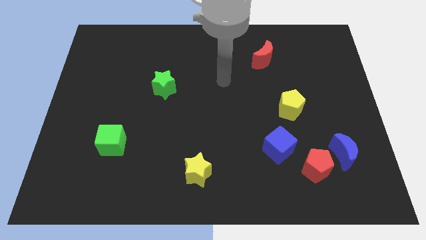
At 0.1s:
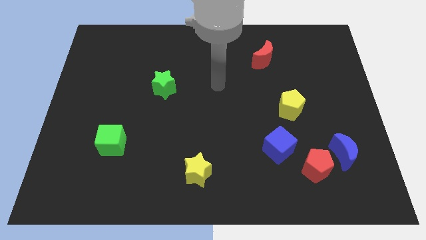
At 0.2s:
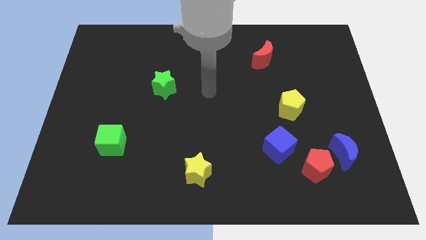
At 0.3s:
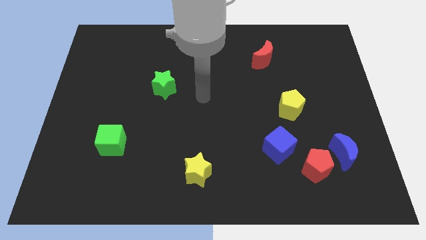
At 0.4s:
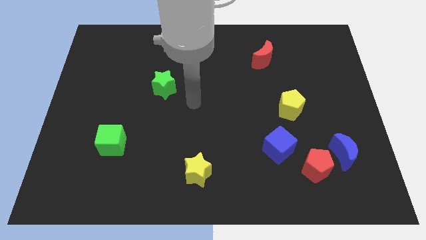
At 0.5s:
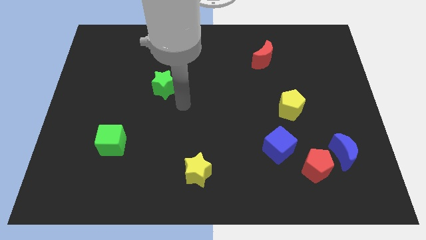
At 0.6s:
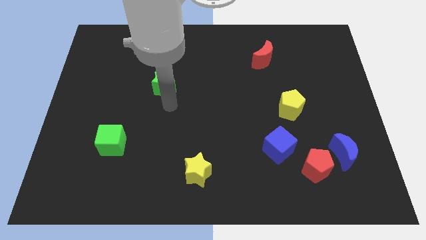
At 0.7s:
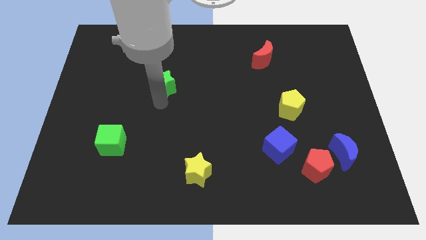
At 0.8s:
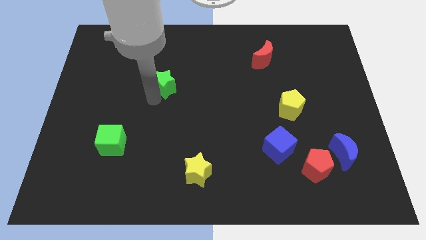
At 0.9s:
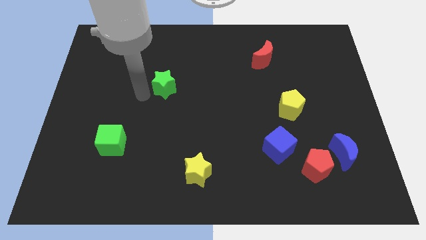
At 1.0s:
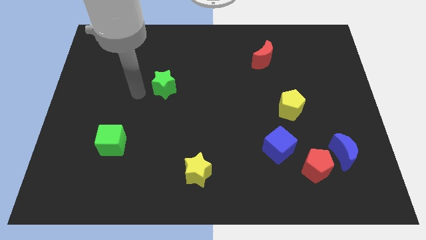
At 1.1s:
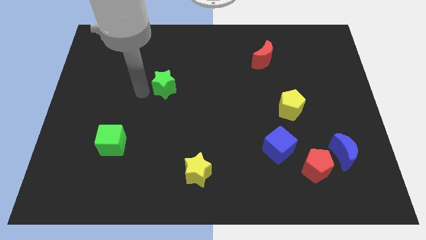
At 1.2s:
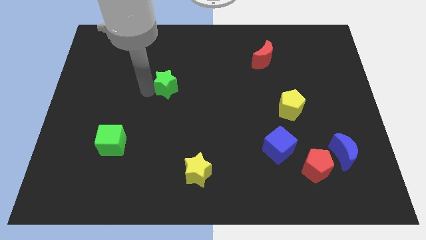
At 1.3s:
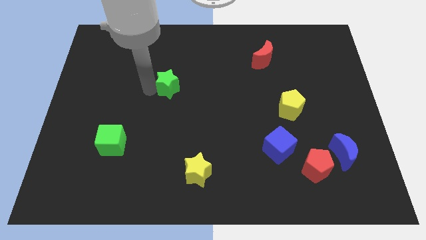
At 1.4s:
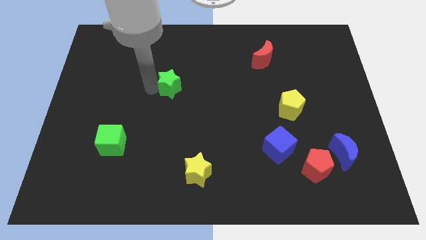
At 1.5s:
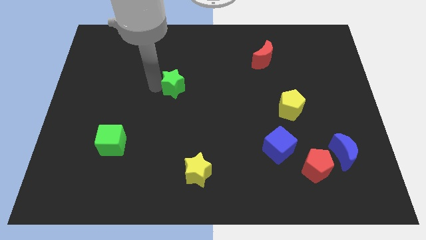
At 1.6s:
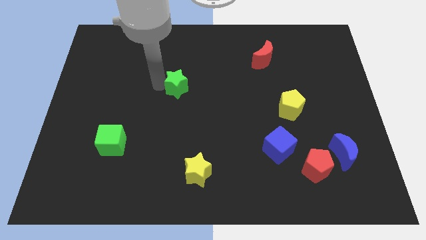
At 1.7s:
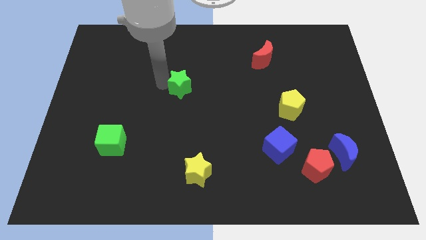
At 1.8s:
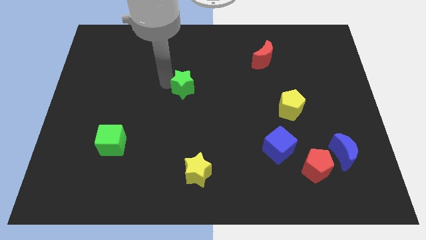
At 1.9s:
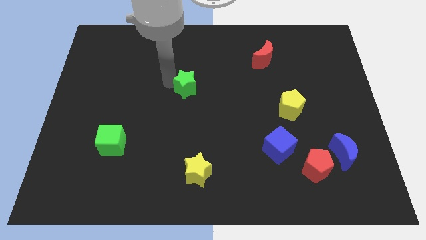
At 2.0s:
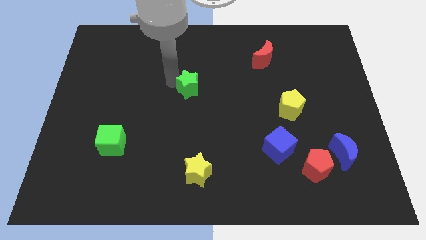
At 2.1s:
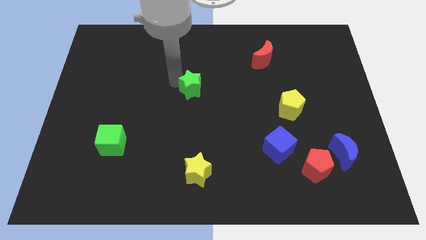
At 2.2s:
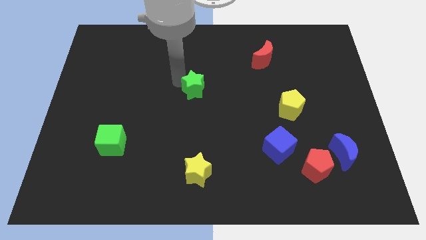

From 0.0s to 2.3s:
slide the green star to the right a bit

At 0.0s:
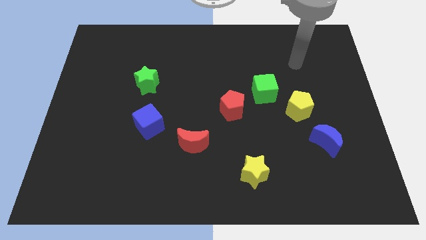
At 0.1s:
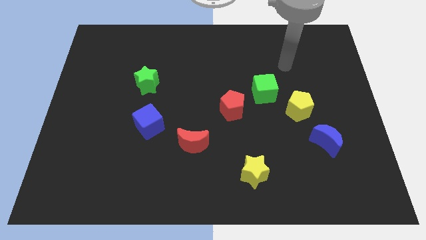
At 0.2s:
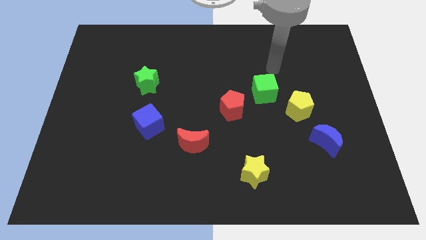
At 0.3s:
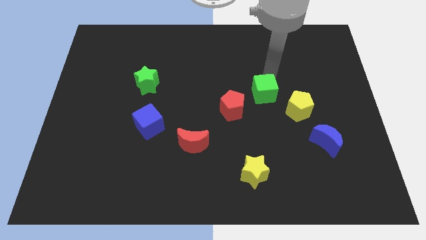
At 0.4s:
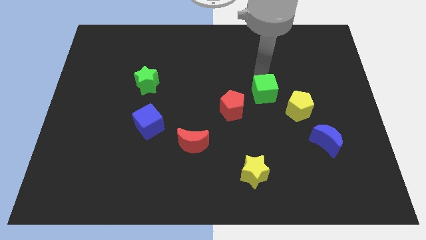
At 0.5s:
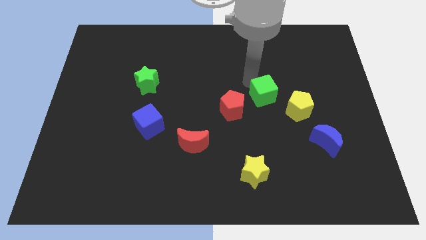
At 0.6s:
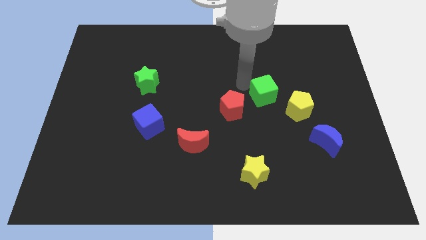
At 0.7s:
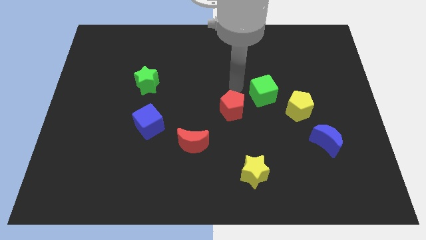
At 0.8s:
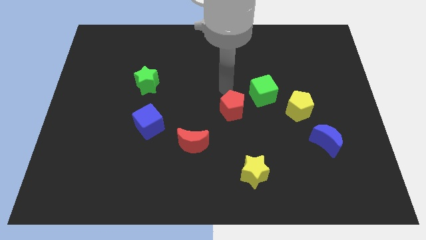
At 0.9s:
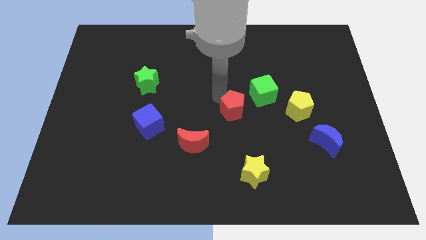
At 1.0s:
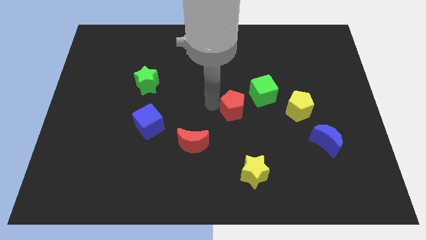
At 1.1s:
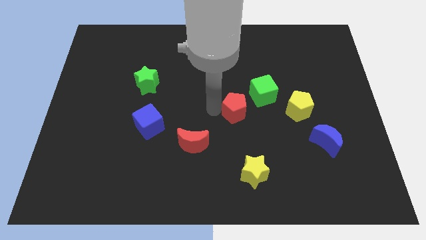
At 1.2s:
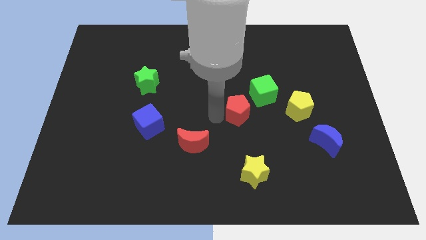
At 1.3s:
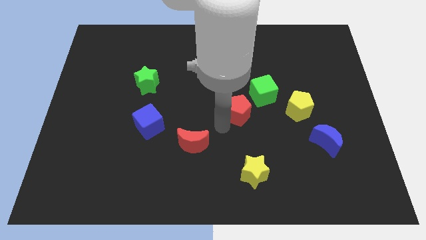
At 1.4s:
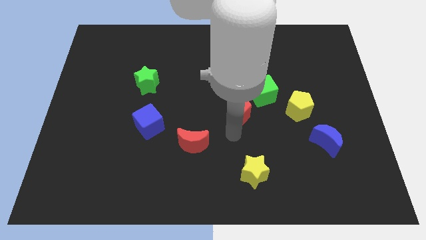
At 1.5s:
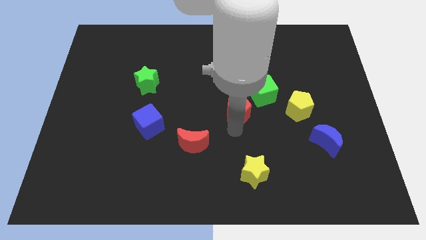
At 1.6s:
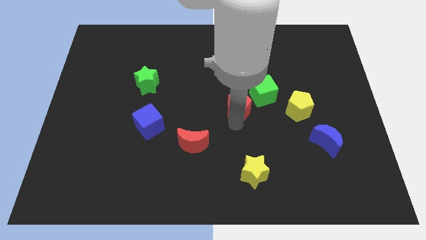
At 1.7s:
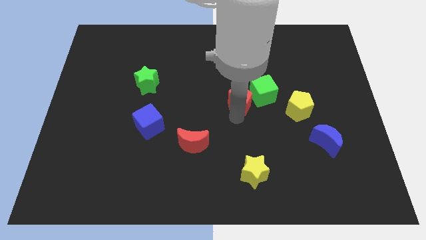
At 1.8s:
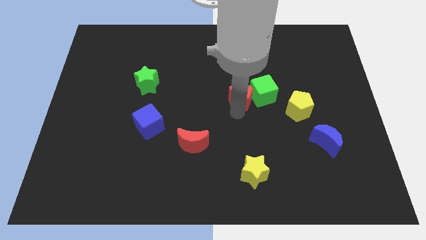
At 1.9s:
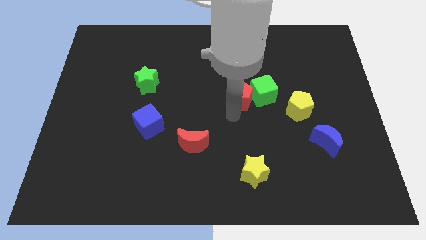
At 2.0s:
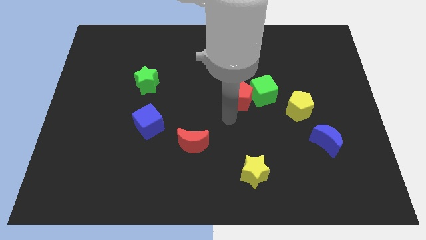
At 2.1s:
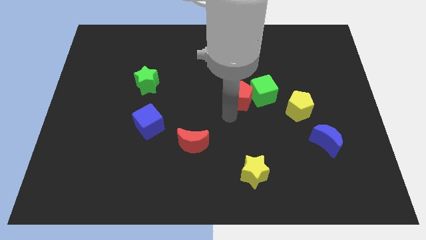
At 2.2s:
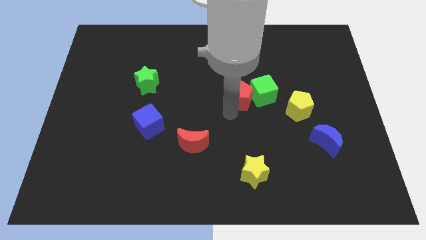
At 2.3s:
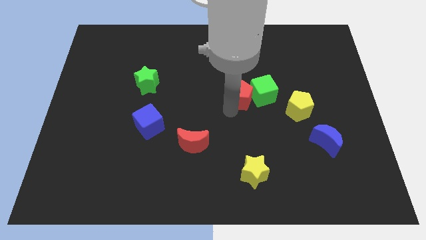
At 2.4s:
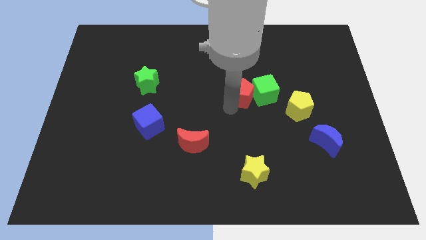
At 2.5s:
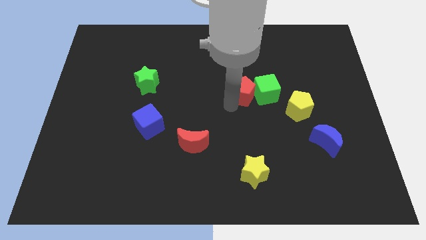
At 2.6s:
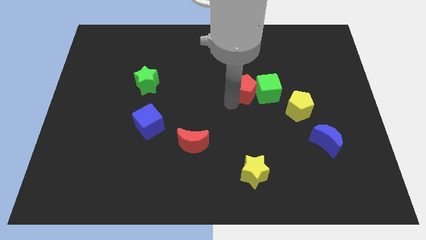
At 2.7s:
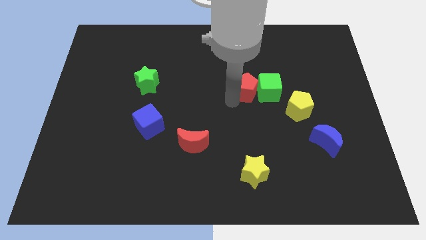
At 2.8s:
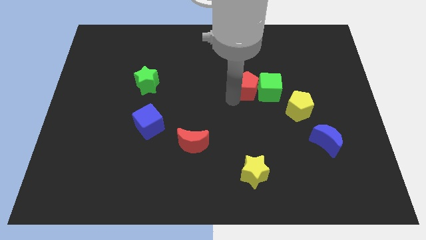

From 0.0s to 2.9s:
push the red pentagon up and then to the right a bit

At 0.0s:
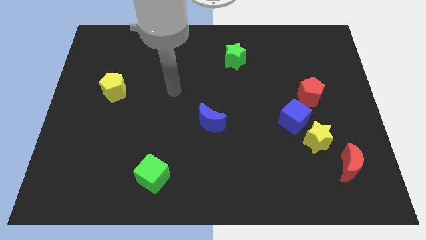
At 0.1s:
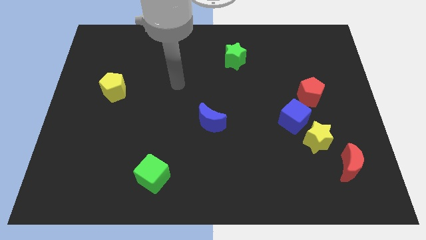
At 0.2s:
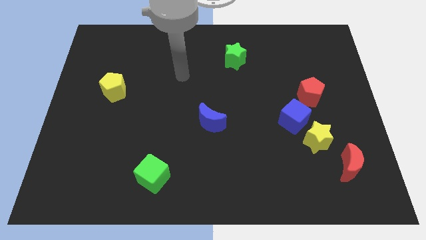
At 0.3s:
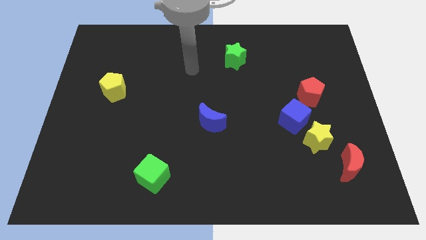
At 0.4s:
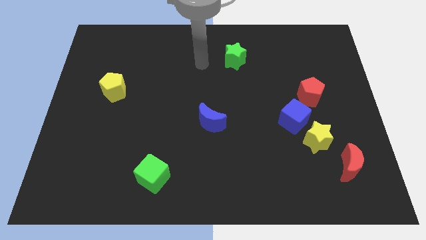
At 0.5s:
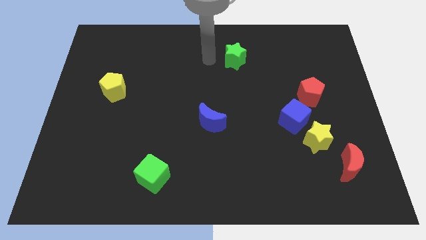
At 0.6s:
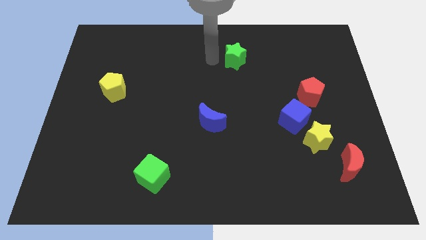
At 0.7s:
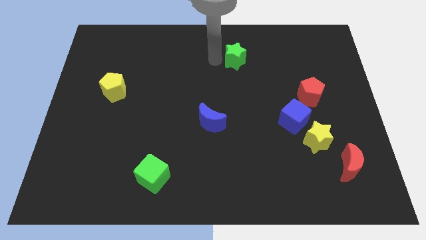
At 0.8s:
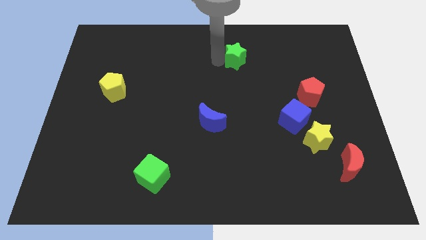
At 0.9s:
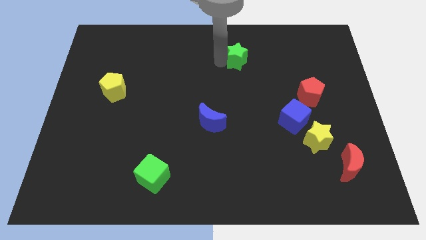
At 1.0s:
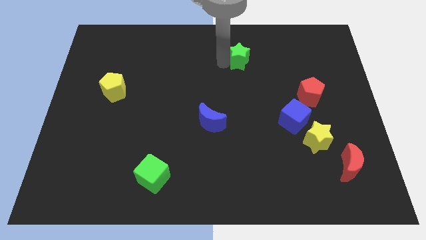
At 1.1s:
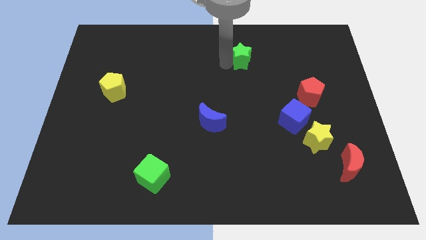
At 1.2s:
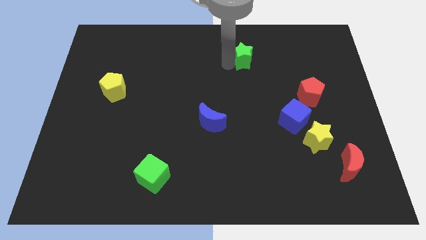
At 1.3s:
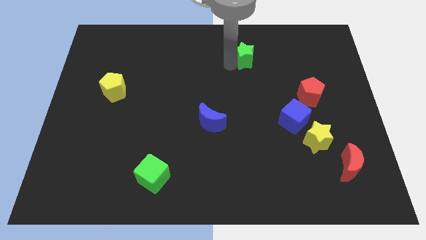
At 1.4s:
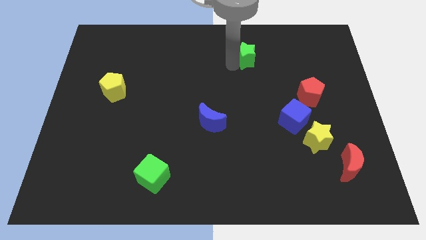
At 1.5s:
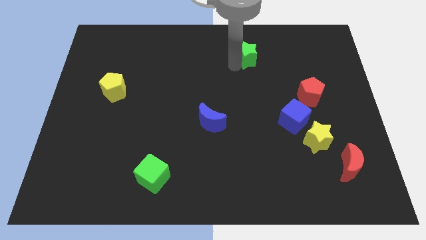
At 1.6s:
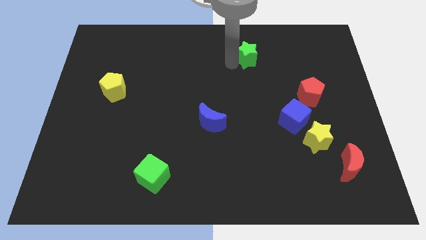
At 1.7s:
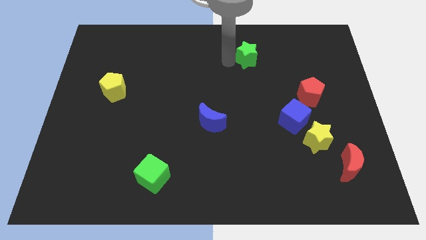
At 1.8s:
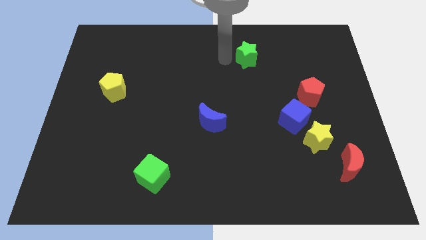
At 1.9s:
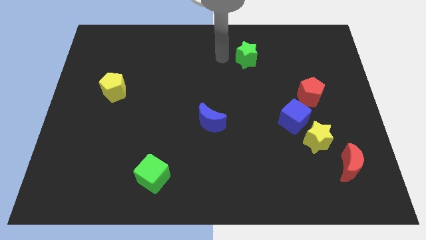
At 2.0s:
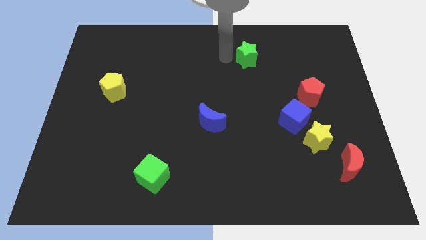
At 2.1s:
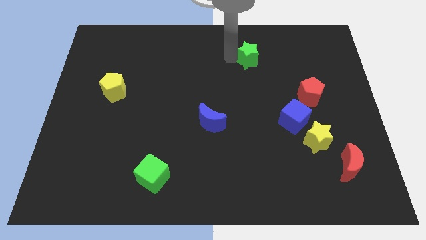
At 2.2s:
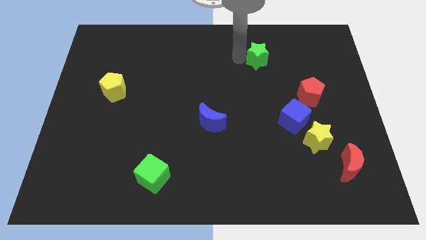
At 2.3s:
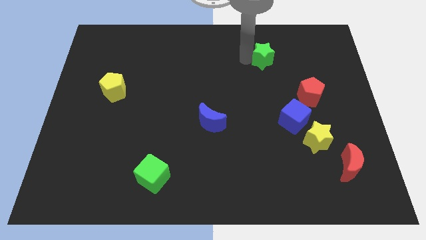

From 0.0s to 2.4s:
slightly move the green star to the right

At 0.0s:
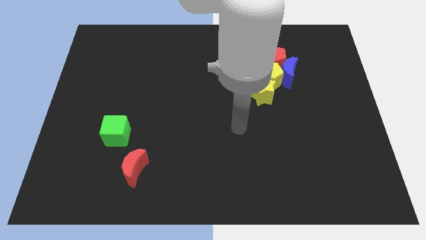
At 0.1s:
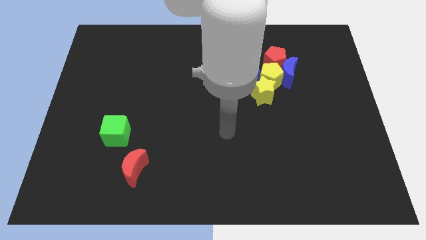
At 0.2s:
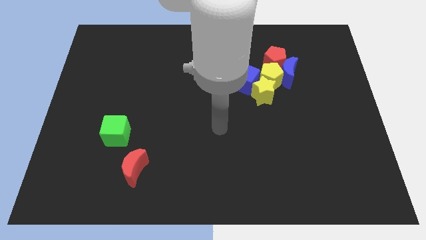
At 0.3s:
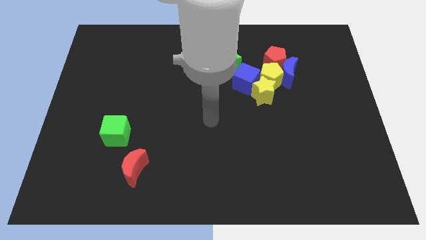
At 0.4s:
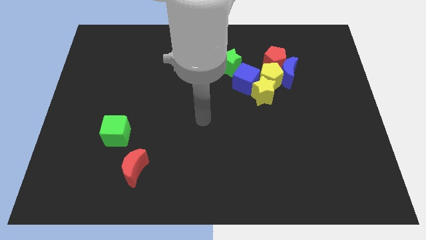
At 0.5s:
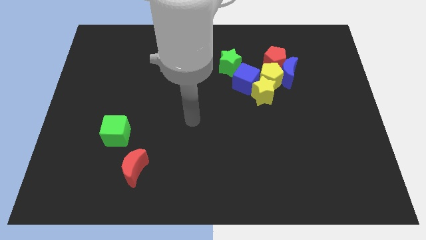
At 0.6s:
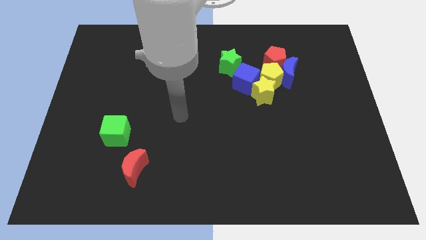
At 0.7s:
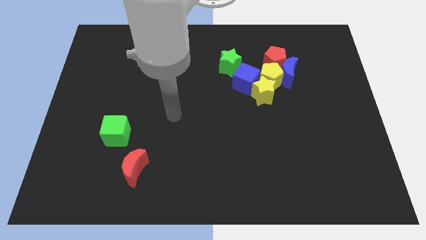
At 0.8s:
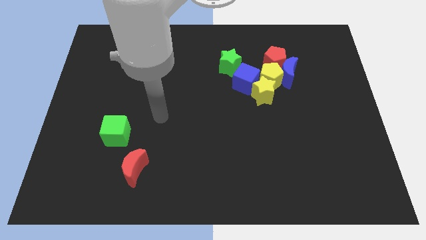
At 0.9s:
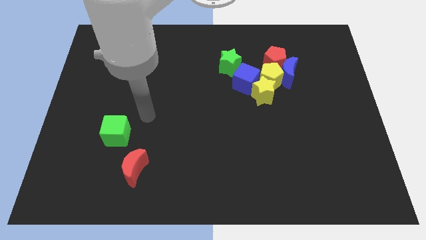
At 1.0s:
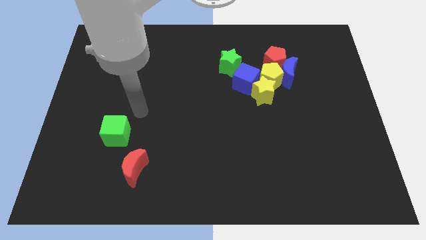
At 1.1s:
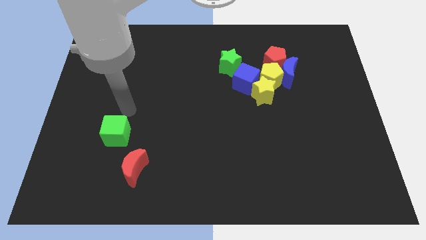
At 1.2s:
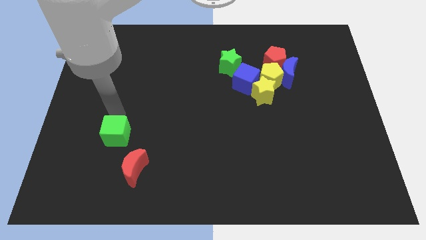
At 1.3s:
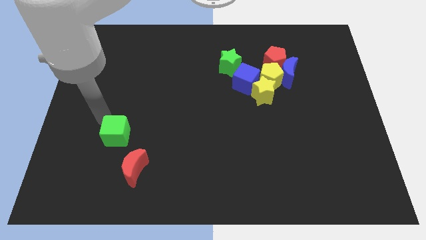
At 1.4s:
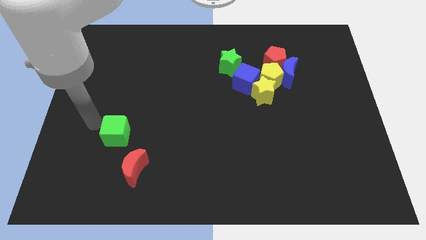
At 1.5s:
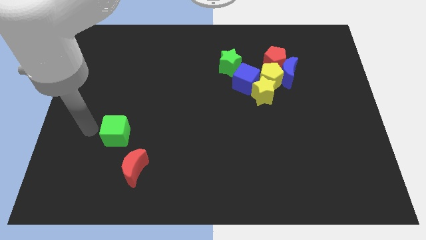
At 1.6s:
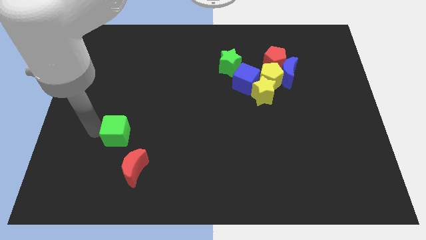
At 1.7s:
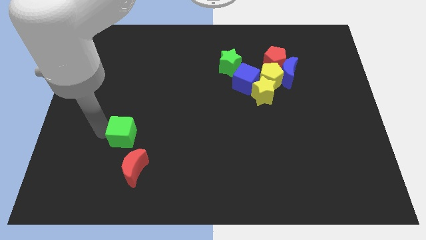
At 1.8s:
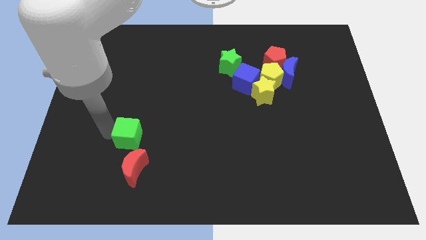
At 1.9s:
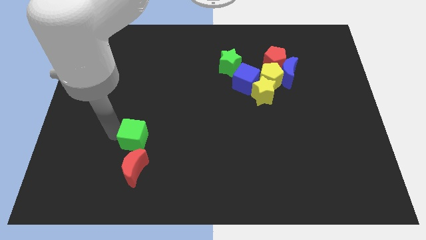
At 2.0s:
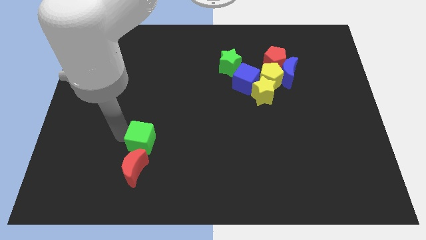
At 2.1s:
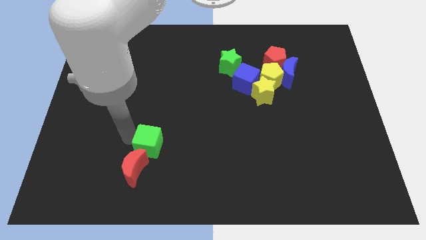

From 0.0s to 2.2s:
slightly push the green cube to the right
